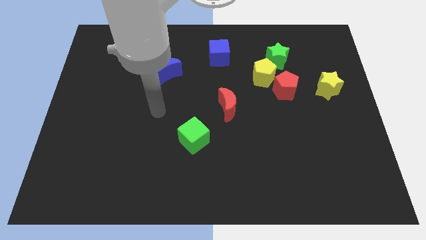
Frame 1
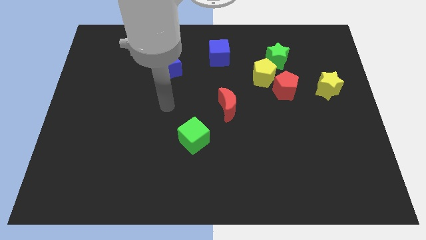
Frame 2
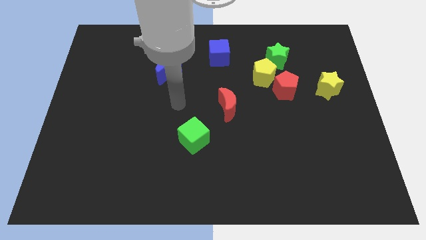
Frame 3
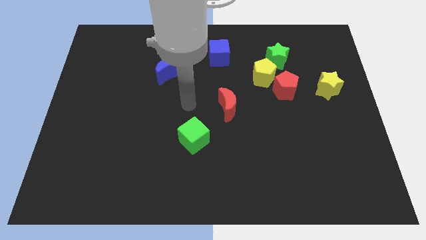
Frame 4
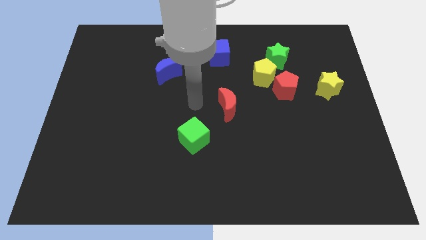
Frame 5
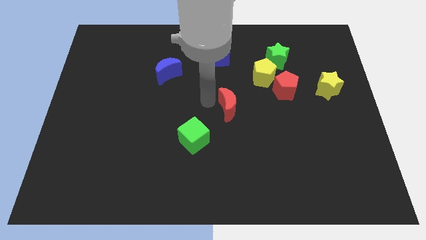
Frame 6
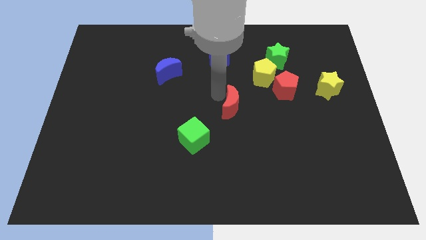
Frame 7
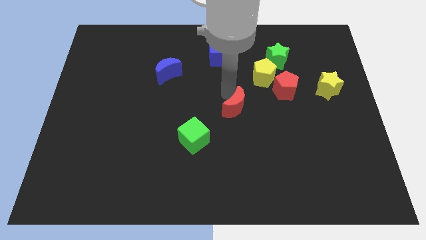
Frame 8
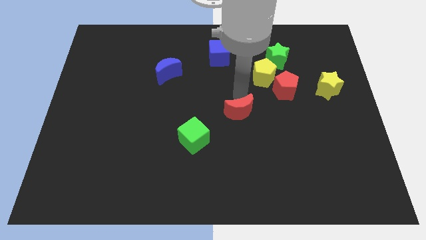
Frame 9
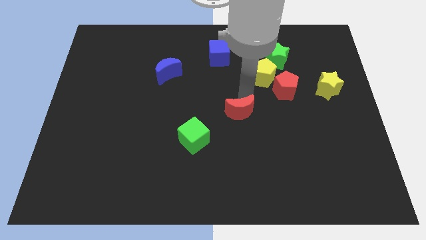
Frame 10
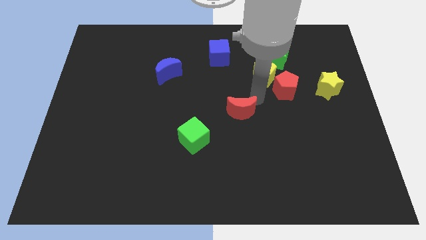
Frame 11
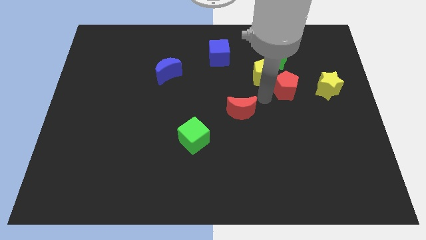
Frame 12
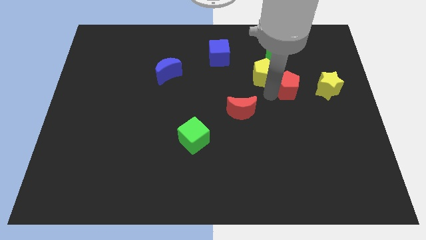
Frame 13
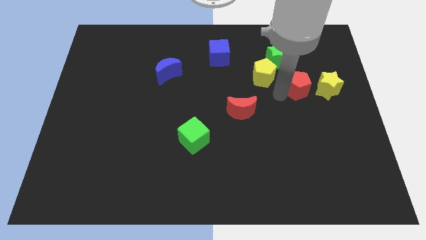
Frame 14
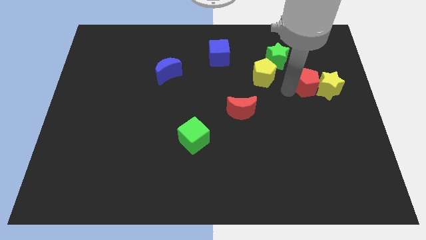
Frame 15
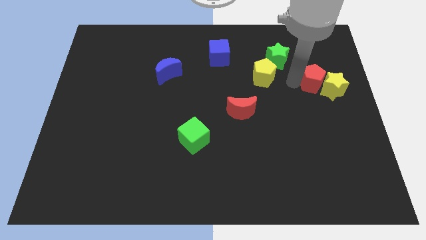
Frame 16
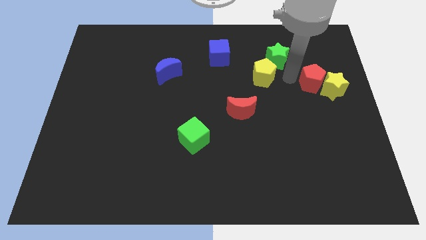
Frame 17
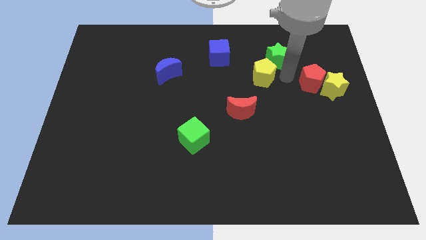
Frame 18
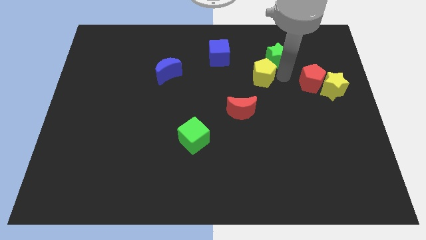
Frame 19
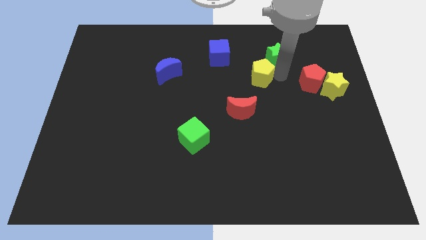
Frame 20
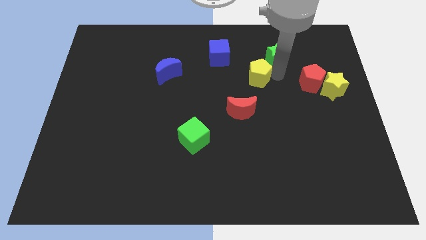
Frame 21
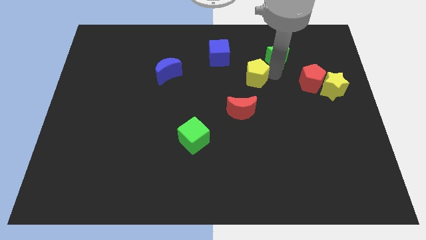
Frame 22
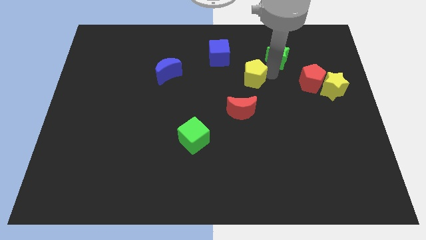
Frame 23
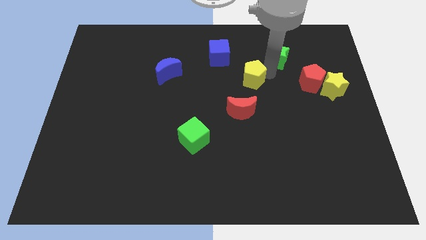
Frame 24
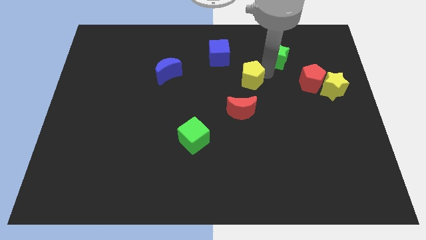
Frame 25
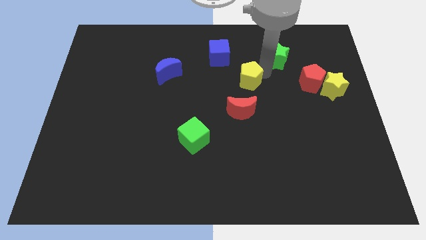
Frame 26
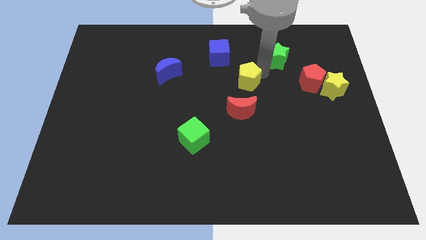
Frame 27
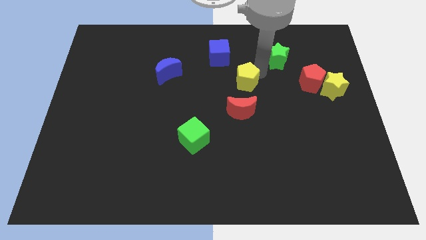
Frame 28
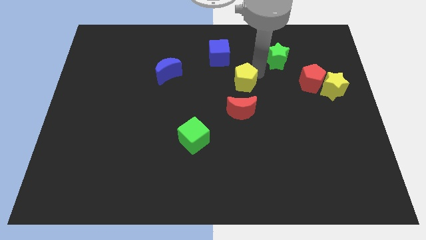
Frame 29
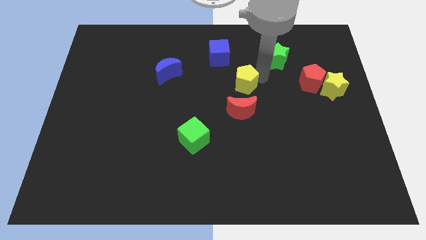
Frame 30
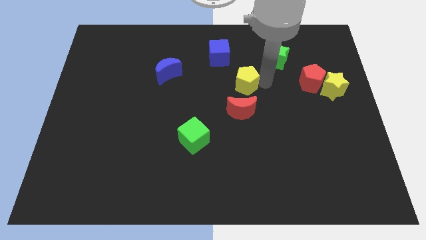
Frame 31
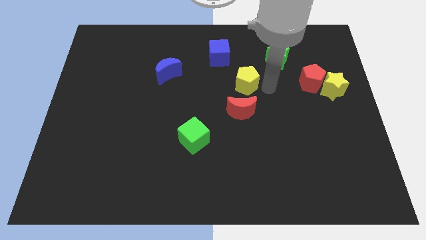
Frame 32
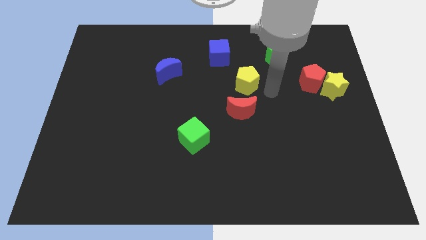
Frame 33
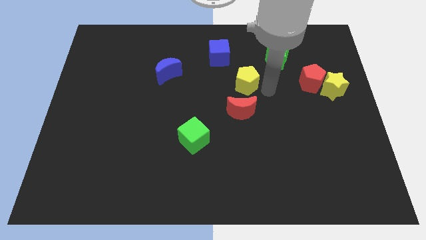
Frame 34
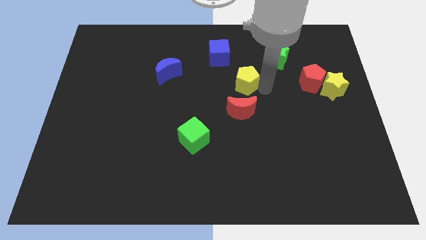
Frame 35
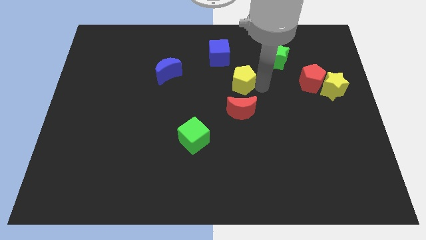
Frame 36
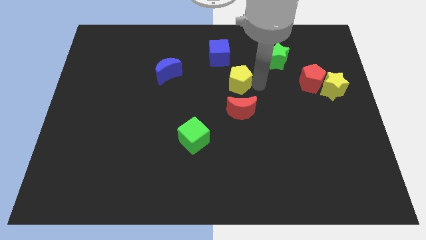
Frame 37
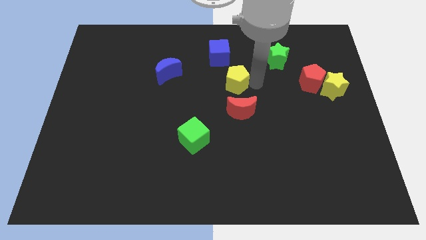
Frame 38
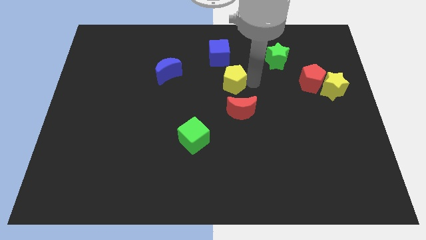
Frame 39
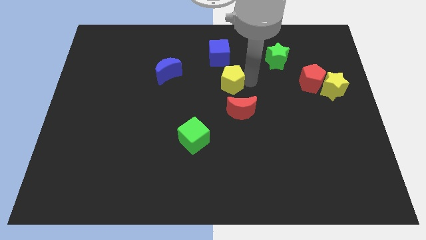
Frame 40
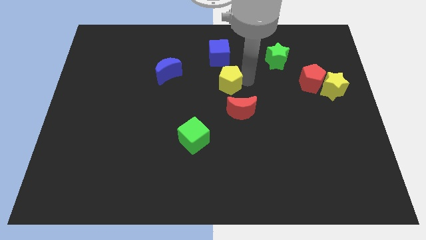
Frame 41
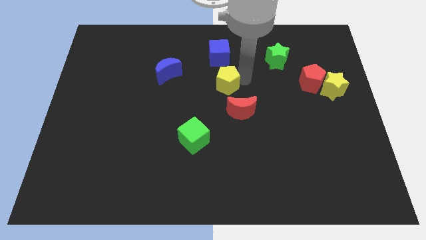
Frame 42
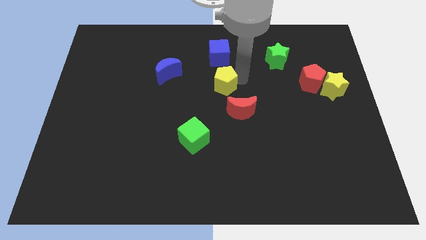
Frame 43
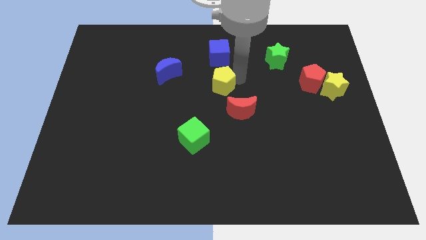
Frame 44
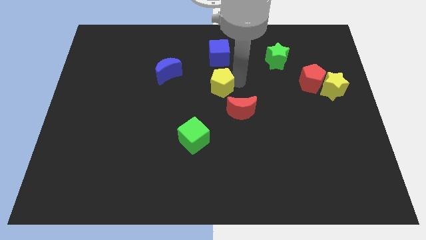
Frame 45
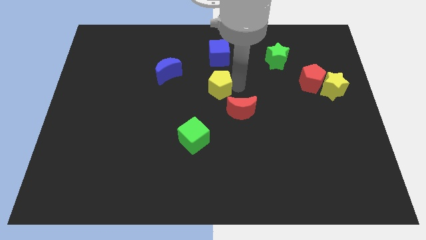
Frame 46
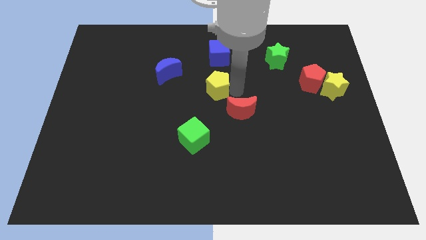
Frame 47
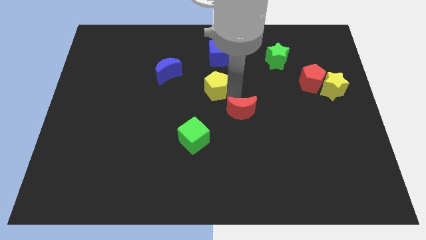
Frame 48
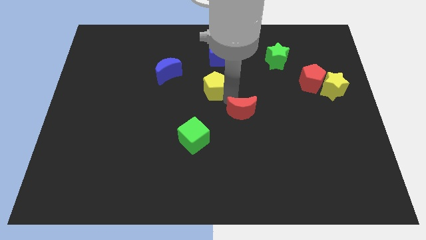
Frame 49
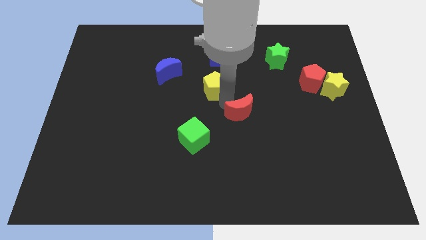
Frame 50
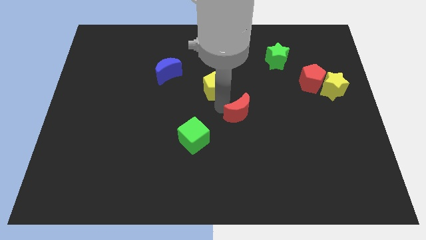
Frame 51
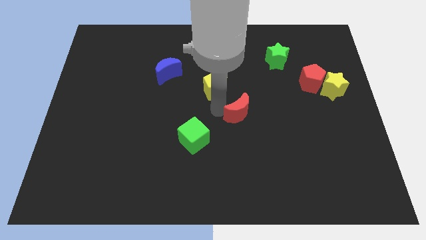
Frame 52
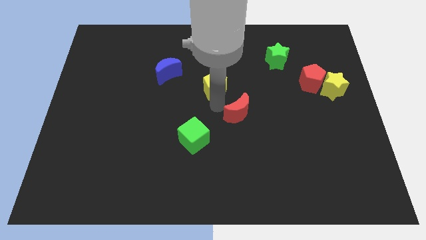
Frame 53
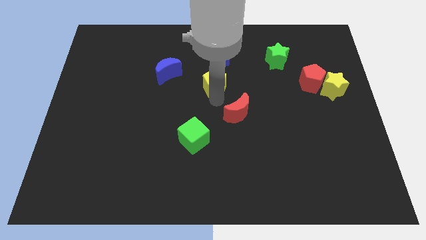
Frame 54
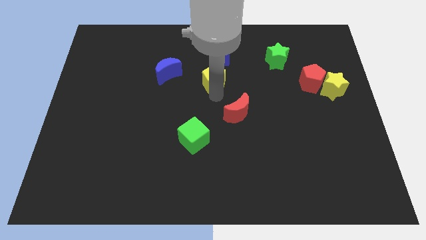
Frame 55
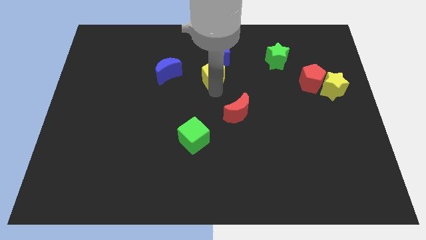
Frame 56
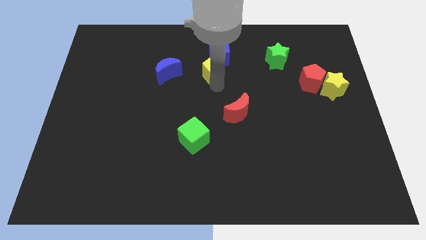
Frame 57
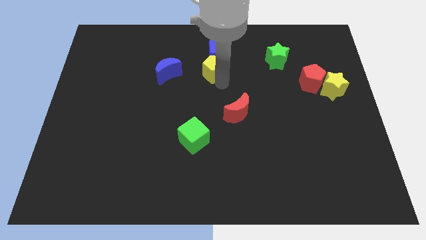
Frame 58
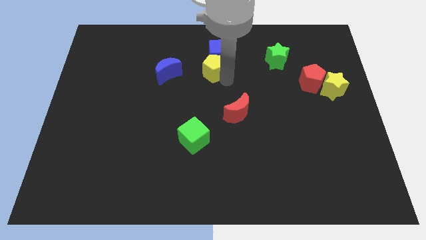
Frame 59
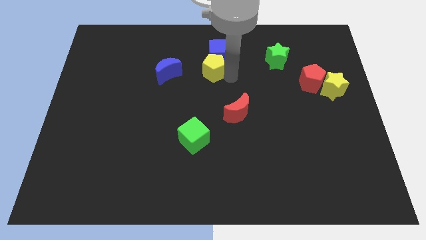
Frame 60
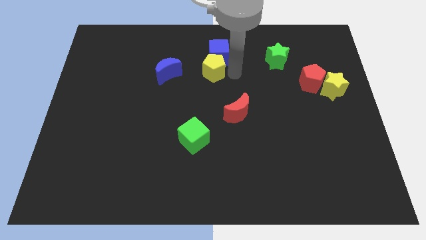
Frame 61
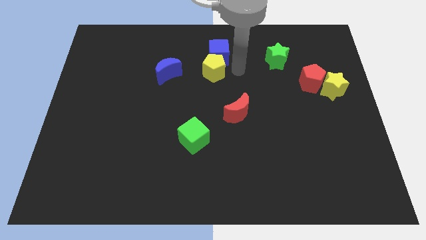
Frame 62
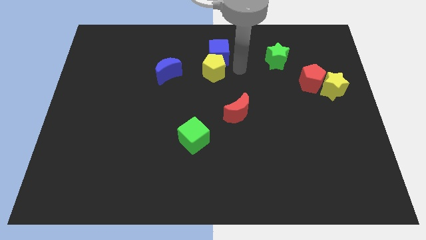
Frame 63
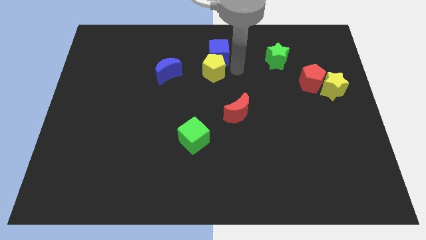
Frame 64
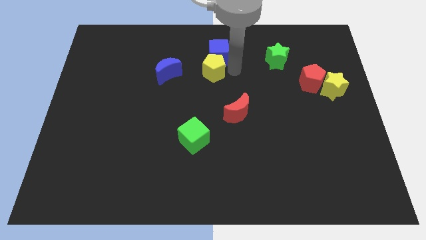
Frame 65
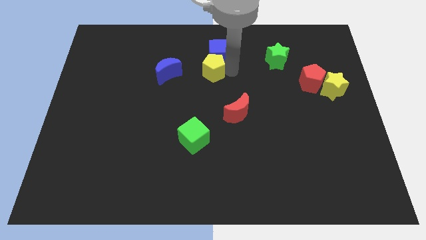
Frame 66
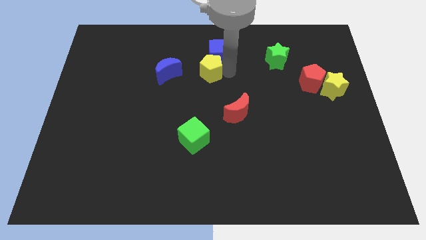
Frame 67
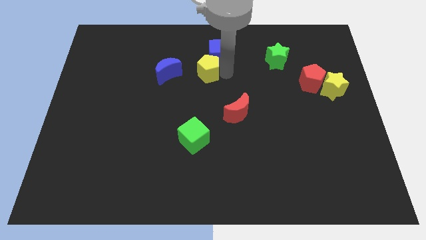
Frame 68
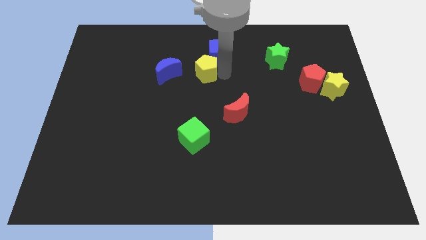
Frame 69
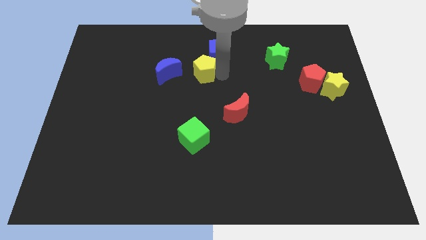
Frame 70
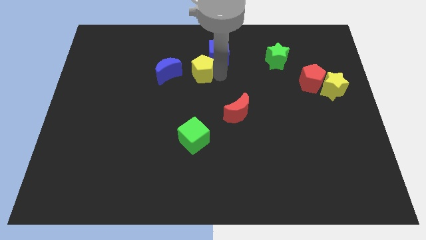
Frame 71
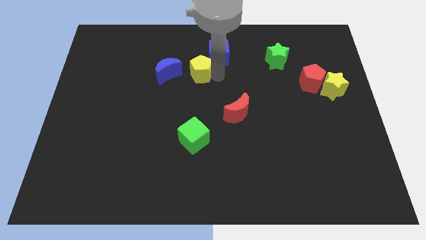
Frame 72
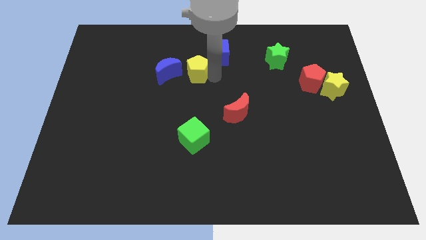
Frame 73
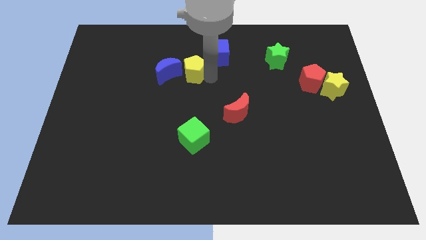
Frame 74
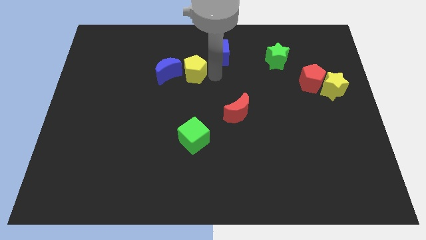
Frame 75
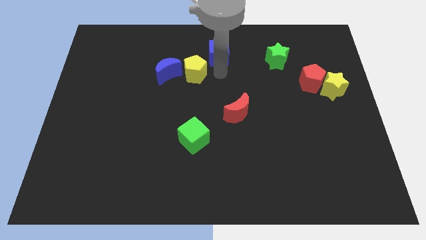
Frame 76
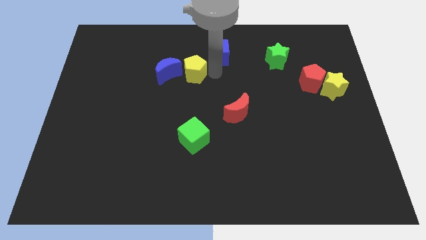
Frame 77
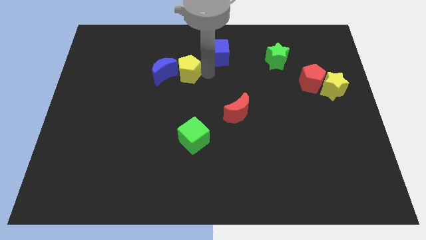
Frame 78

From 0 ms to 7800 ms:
push the yellow pentagon towards the blue moon
